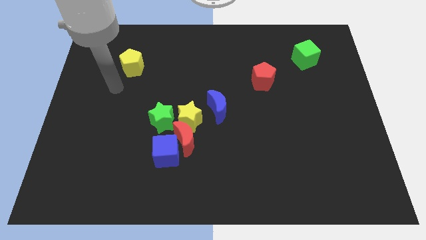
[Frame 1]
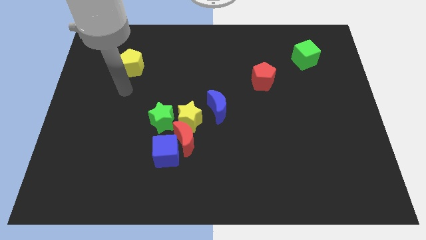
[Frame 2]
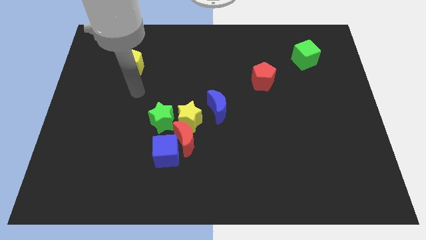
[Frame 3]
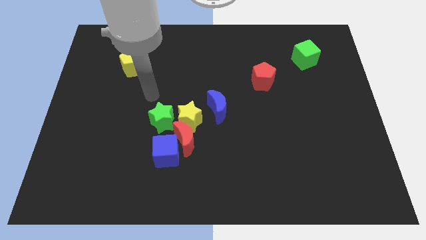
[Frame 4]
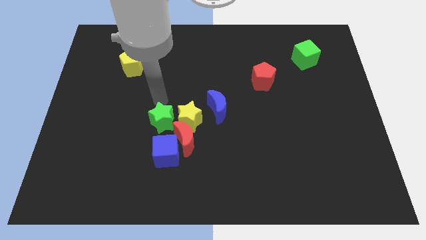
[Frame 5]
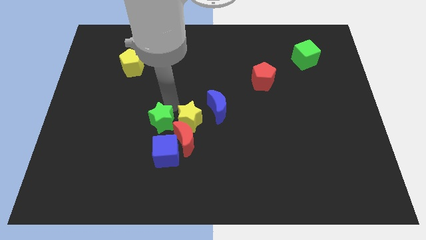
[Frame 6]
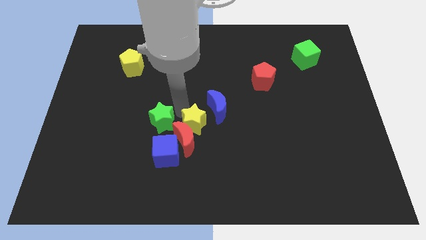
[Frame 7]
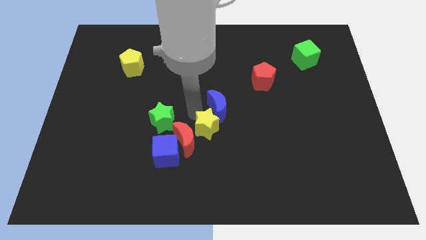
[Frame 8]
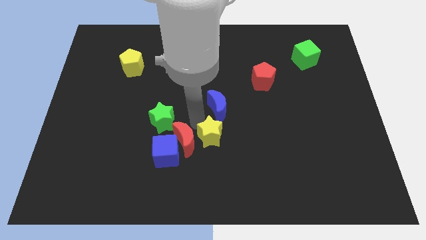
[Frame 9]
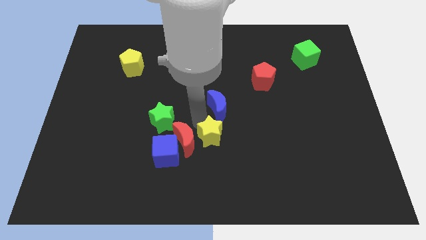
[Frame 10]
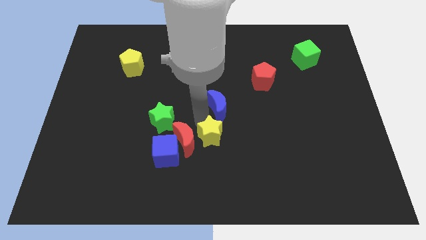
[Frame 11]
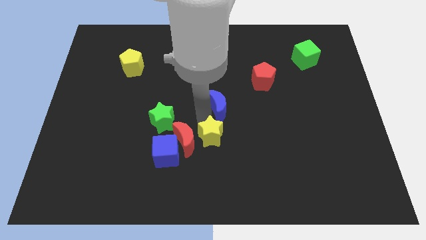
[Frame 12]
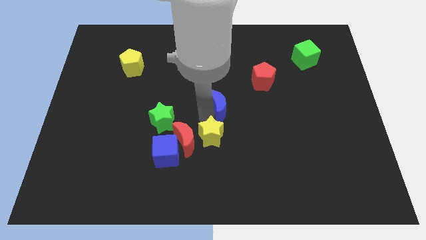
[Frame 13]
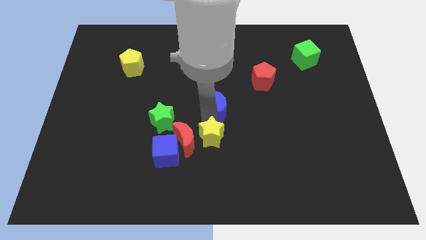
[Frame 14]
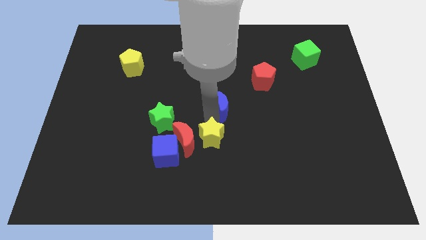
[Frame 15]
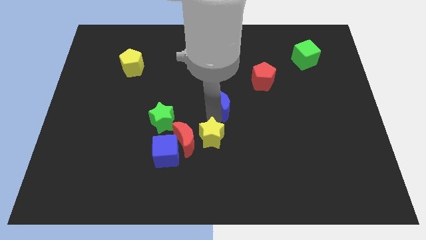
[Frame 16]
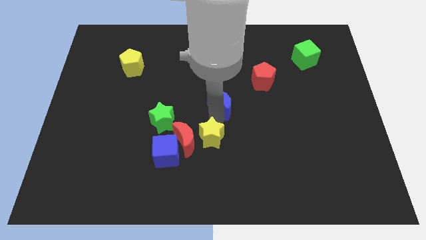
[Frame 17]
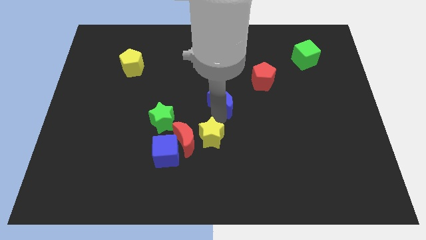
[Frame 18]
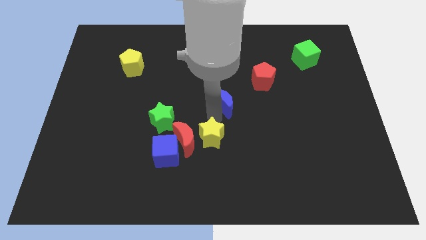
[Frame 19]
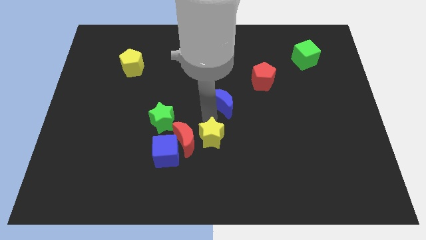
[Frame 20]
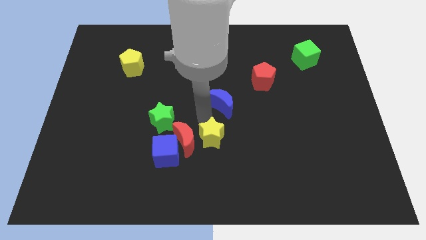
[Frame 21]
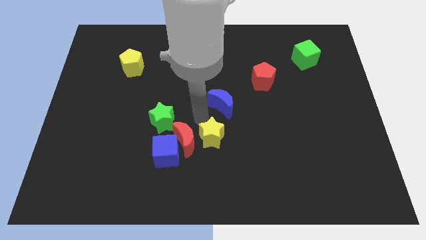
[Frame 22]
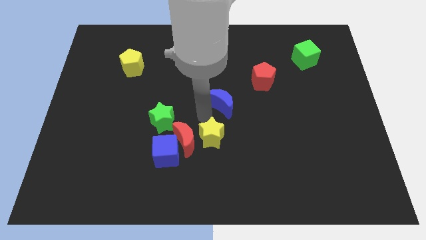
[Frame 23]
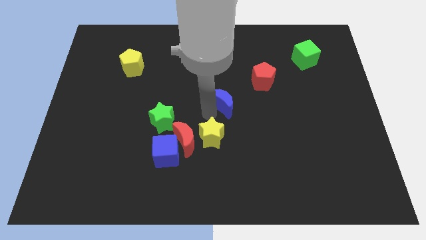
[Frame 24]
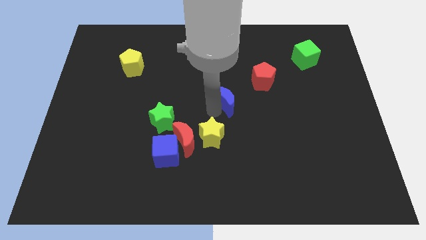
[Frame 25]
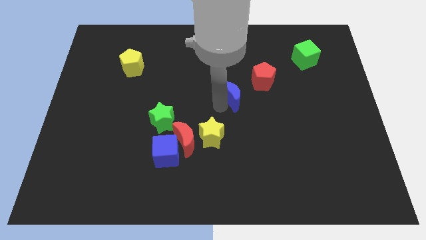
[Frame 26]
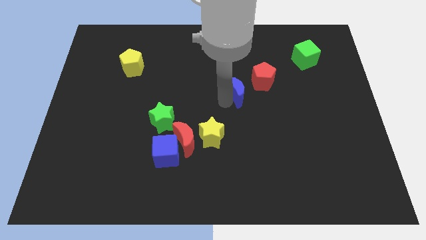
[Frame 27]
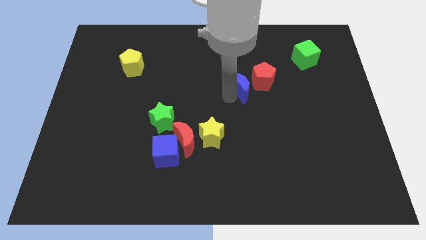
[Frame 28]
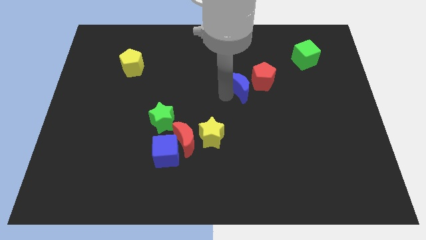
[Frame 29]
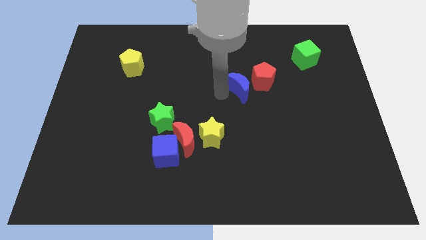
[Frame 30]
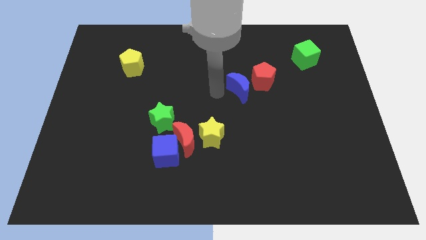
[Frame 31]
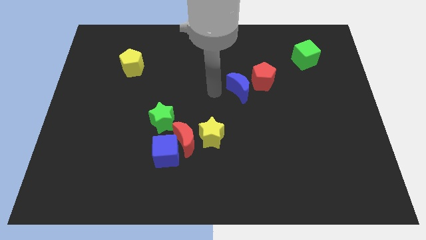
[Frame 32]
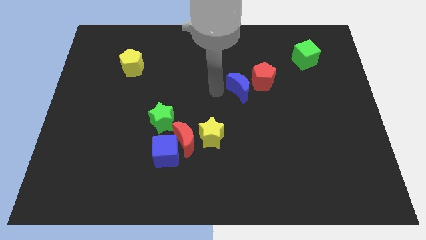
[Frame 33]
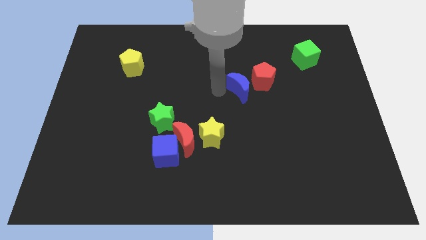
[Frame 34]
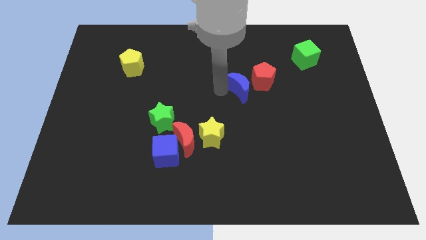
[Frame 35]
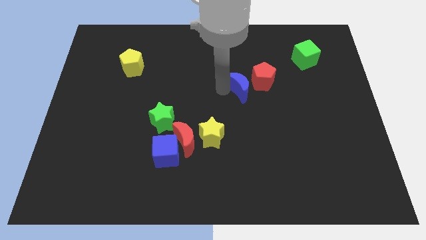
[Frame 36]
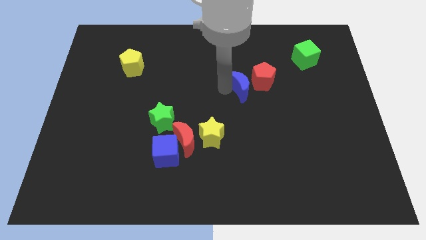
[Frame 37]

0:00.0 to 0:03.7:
move the blue moon towards the red pentagon

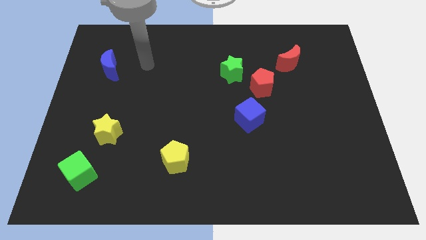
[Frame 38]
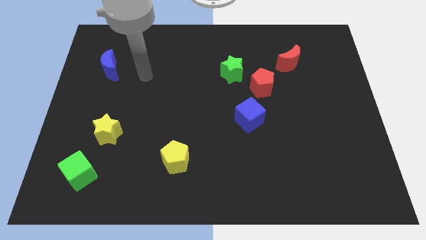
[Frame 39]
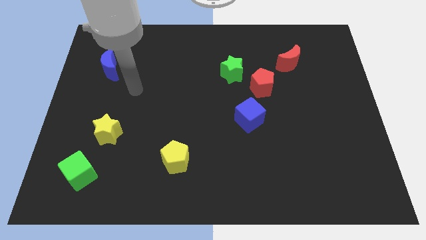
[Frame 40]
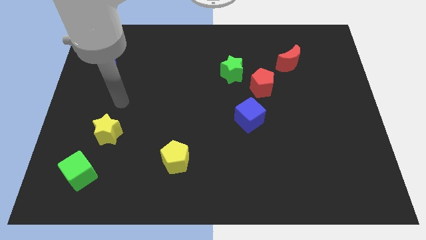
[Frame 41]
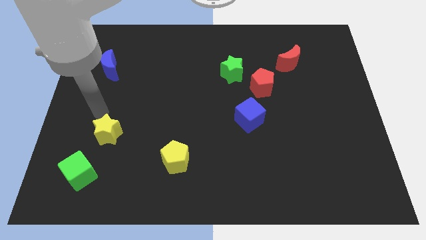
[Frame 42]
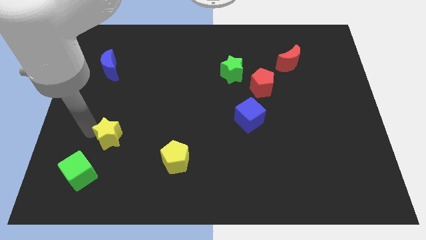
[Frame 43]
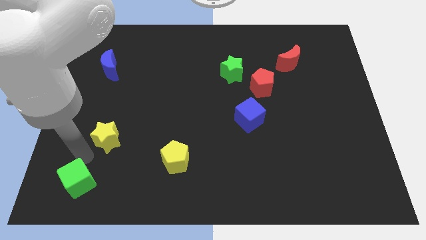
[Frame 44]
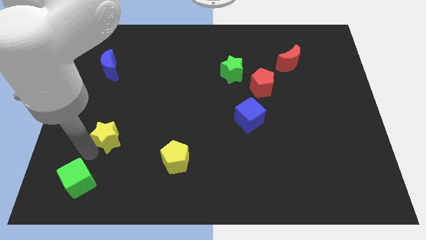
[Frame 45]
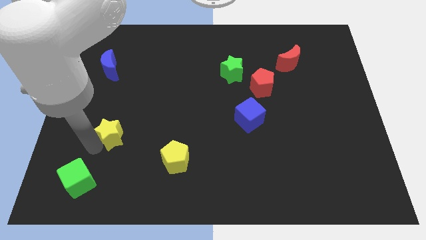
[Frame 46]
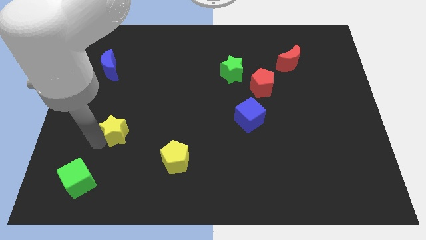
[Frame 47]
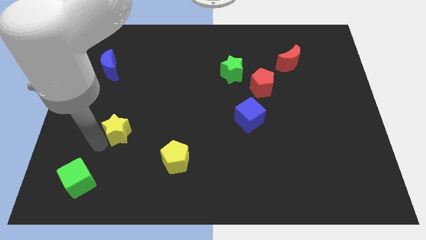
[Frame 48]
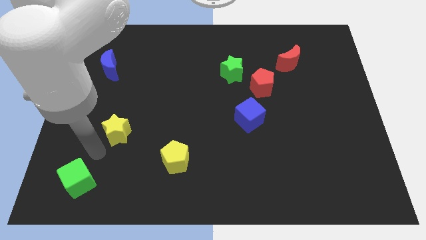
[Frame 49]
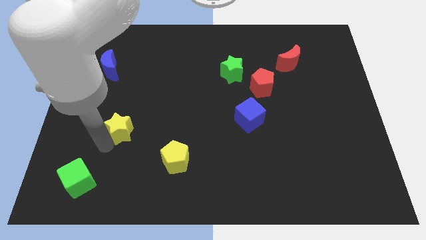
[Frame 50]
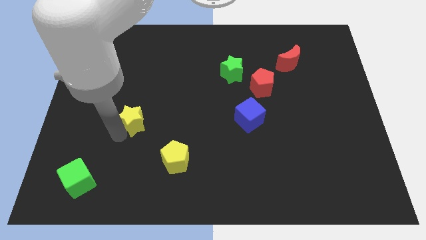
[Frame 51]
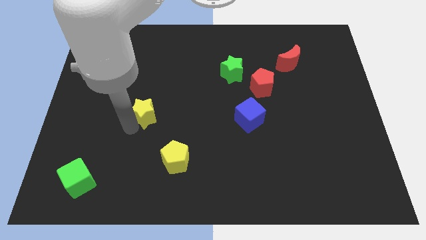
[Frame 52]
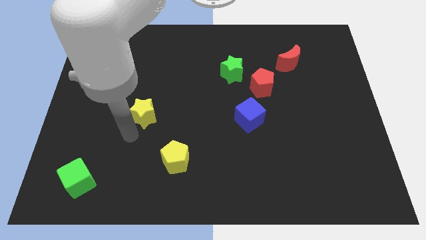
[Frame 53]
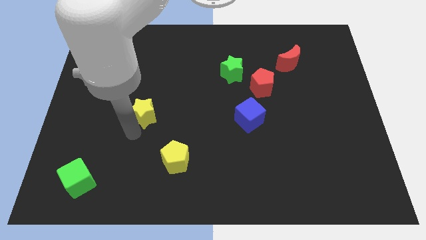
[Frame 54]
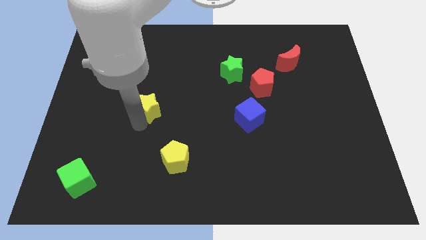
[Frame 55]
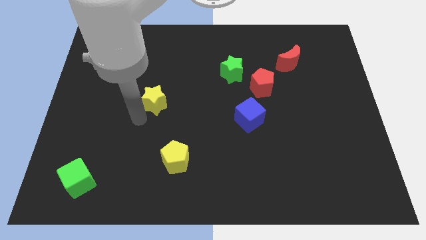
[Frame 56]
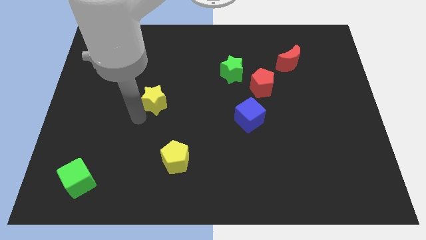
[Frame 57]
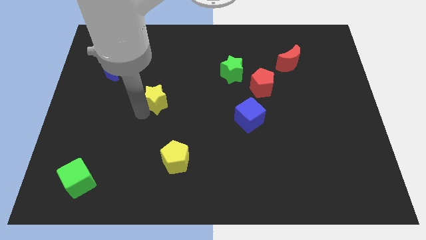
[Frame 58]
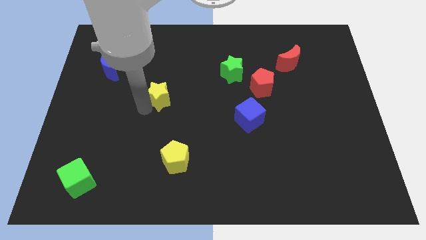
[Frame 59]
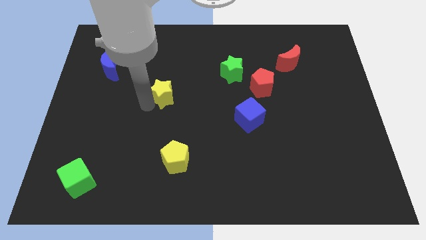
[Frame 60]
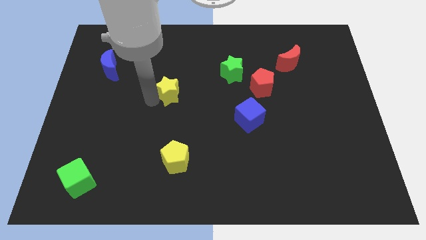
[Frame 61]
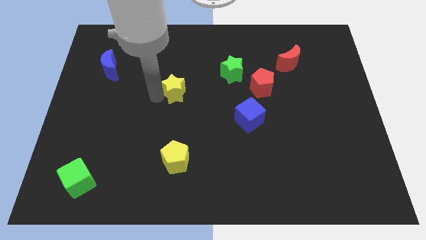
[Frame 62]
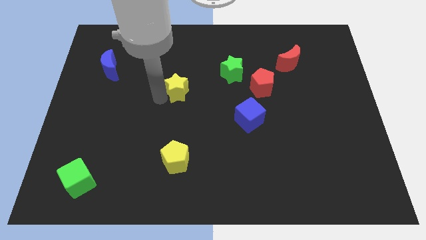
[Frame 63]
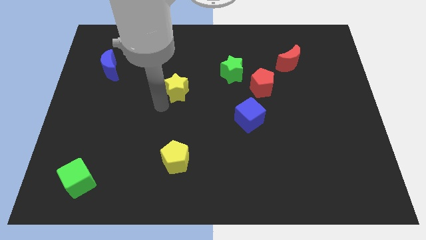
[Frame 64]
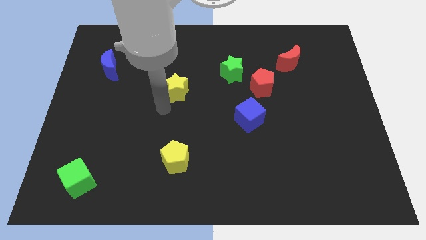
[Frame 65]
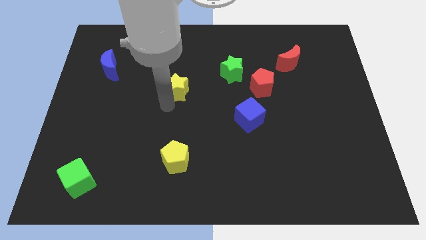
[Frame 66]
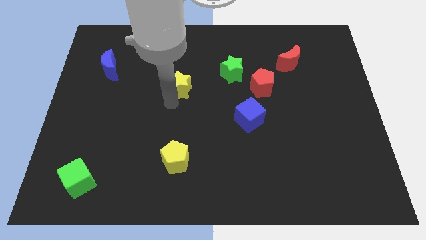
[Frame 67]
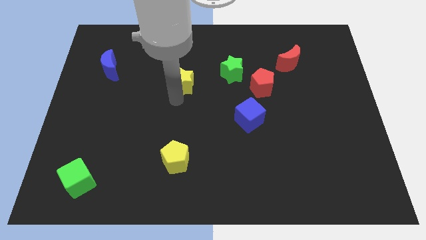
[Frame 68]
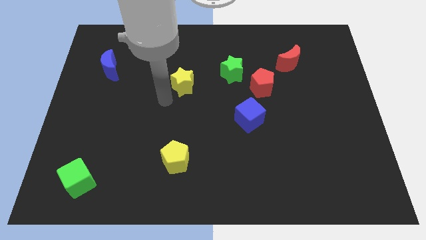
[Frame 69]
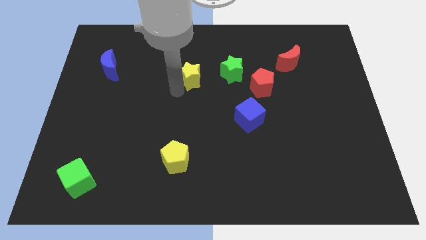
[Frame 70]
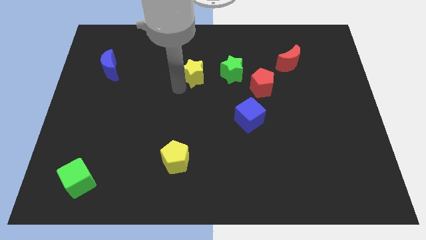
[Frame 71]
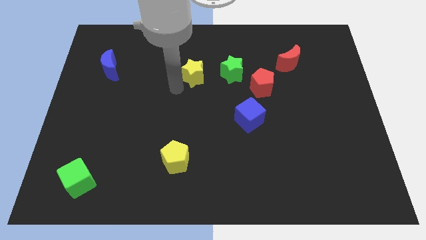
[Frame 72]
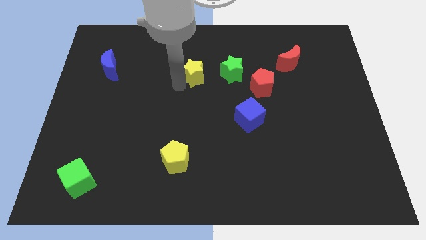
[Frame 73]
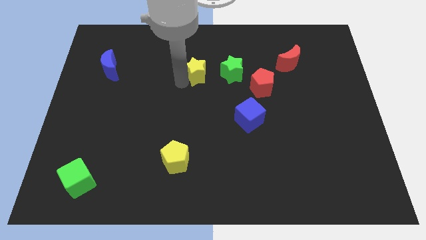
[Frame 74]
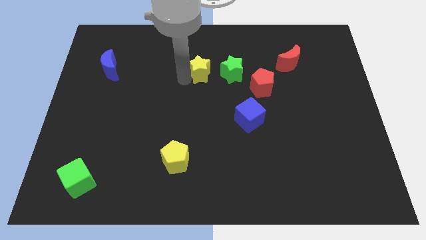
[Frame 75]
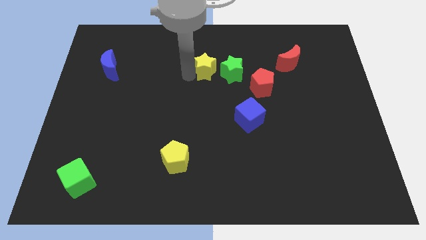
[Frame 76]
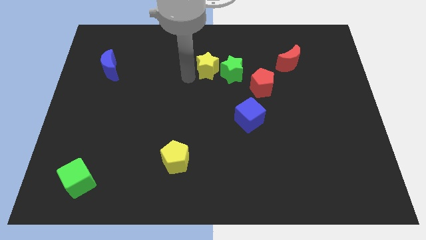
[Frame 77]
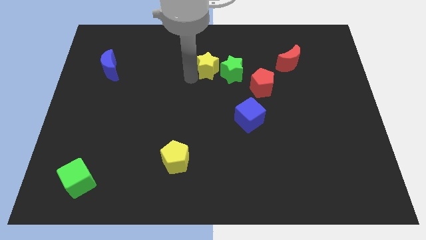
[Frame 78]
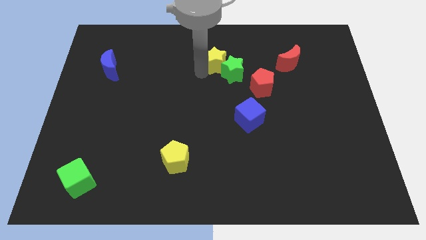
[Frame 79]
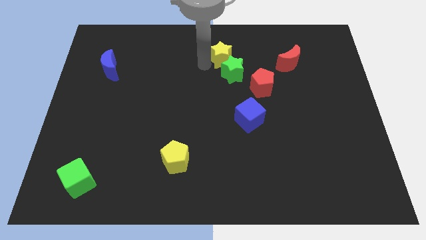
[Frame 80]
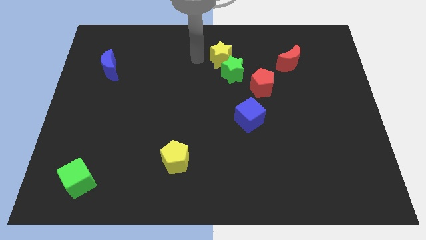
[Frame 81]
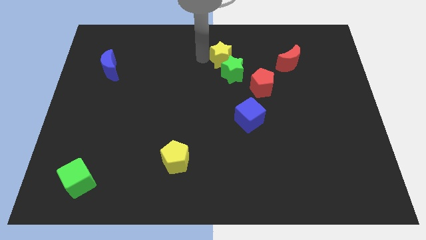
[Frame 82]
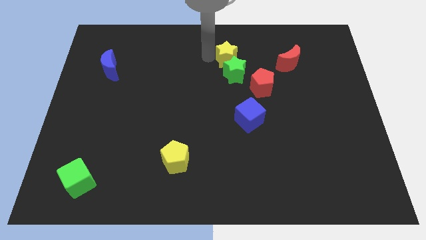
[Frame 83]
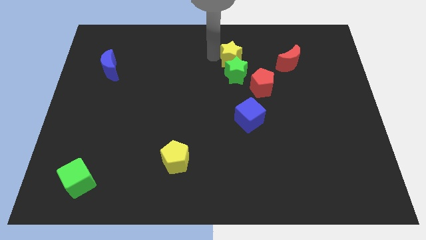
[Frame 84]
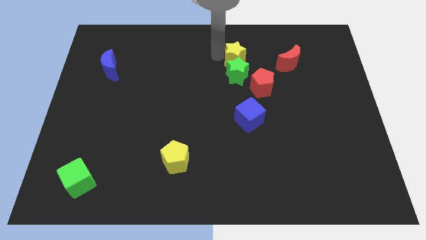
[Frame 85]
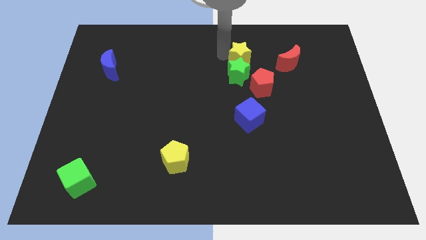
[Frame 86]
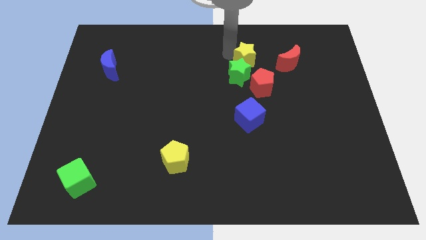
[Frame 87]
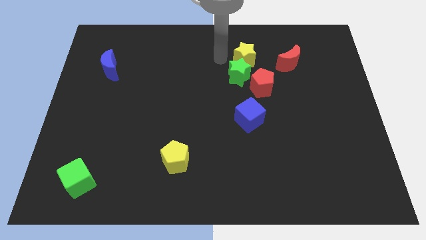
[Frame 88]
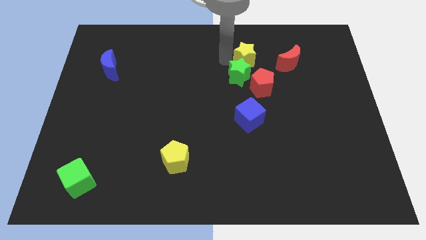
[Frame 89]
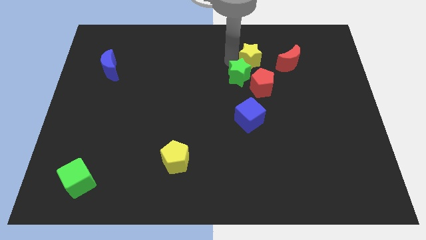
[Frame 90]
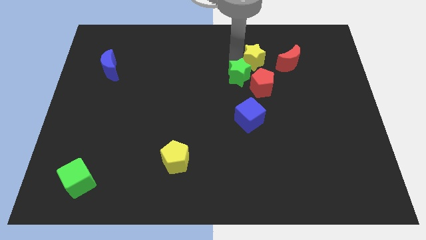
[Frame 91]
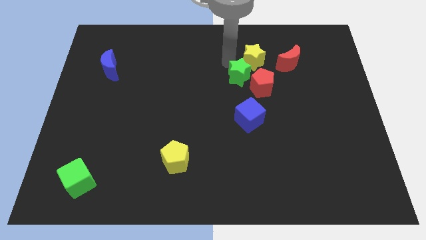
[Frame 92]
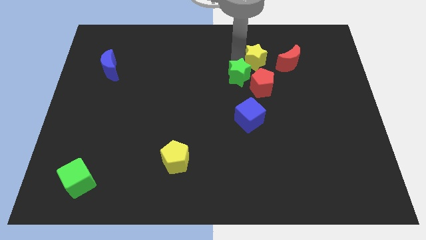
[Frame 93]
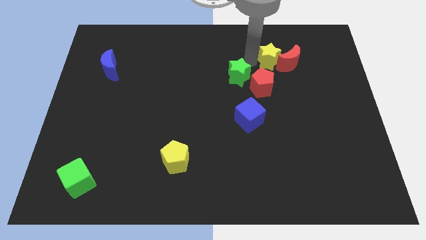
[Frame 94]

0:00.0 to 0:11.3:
move the yellow star next to the red moon
